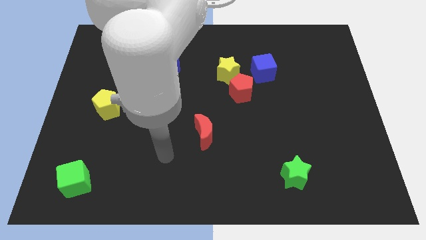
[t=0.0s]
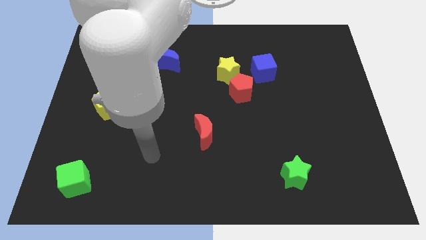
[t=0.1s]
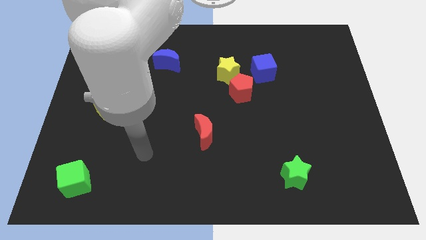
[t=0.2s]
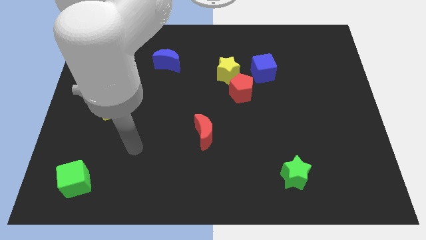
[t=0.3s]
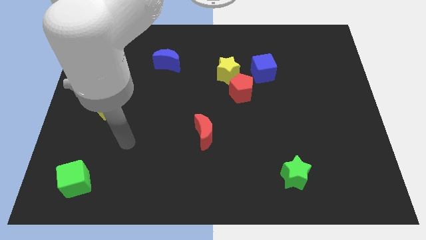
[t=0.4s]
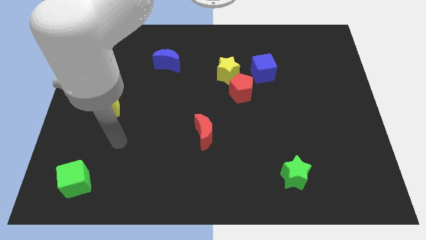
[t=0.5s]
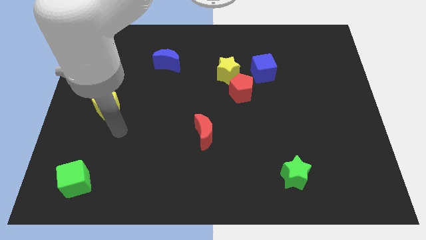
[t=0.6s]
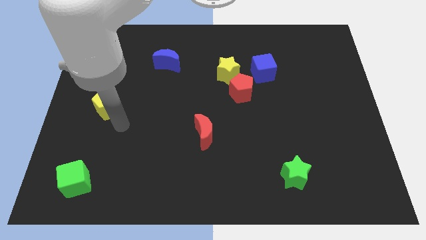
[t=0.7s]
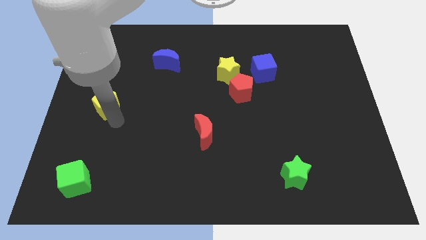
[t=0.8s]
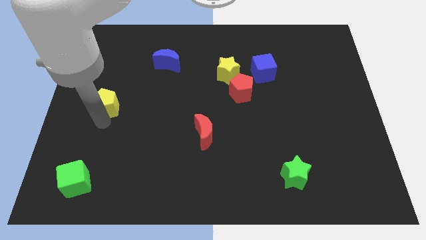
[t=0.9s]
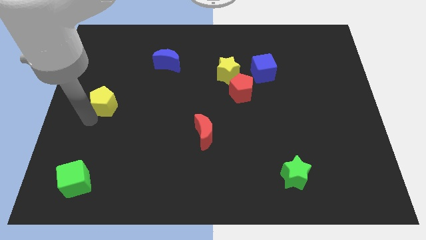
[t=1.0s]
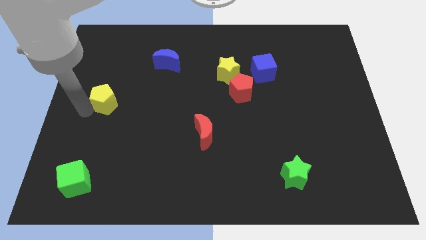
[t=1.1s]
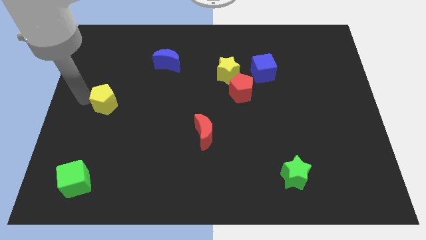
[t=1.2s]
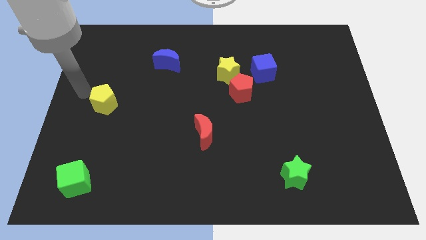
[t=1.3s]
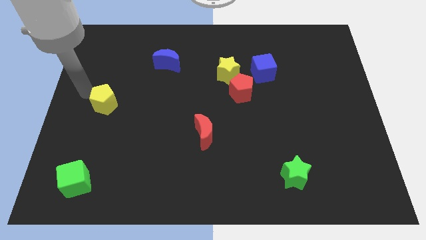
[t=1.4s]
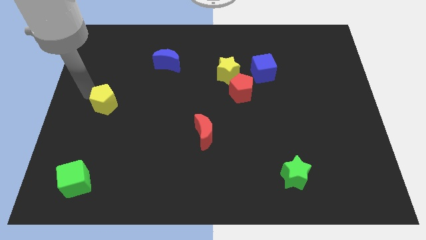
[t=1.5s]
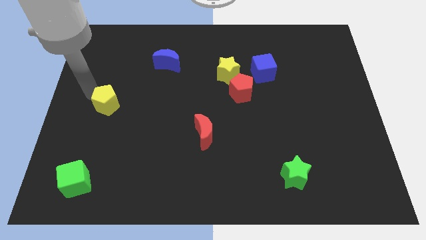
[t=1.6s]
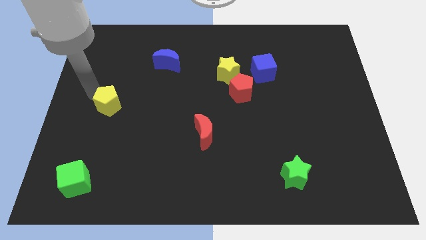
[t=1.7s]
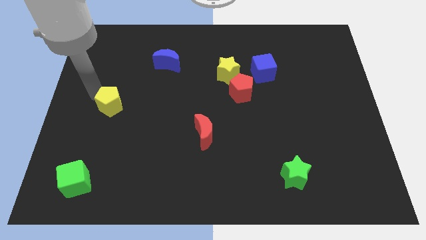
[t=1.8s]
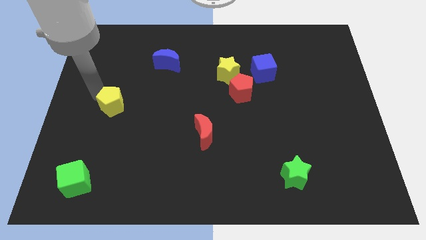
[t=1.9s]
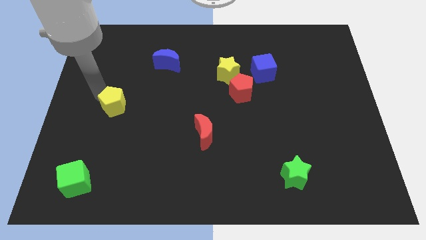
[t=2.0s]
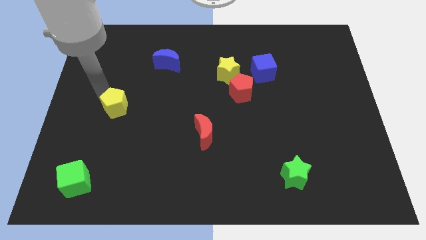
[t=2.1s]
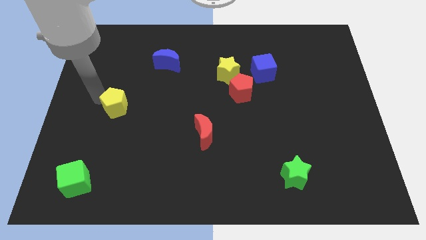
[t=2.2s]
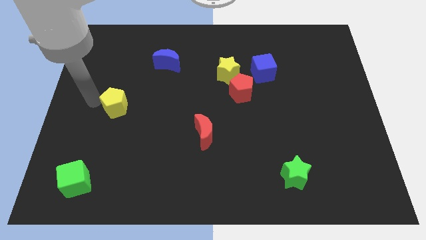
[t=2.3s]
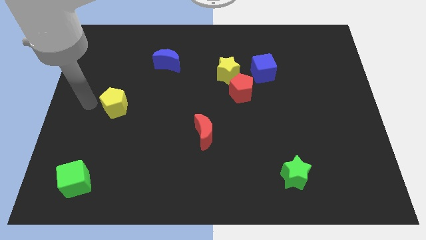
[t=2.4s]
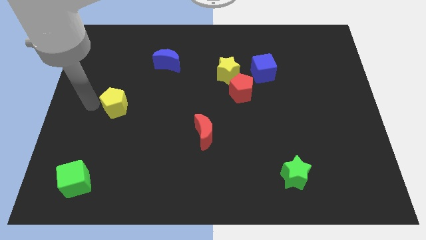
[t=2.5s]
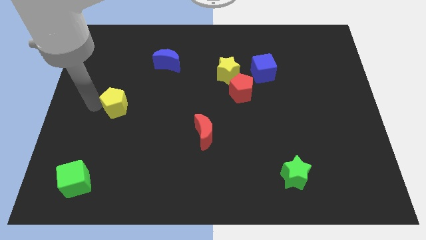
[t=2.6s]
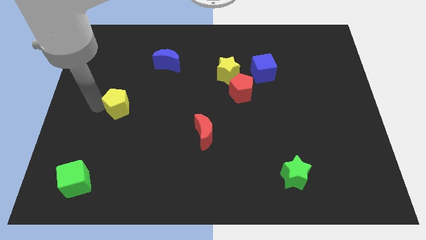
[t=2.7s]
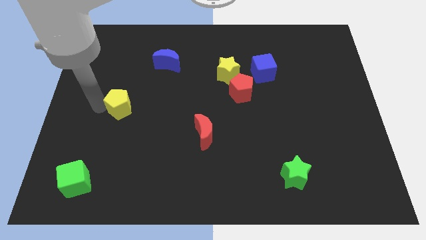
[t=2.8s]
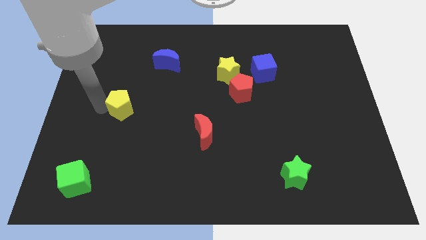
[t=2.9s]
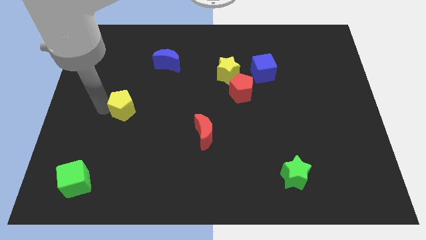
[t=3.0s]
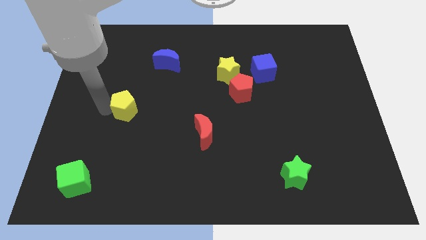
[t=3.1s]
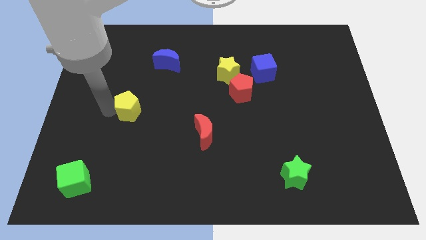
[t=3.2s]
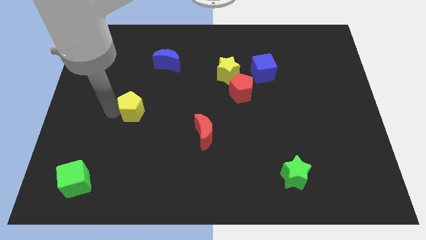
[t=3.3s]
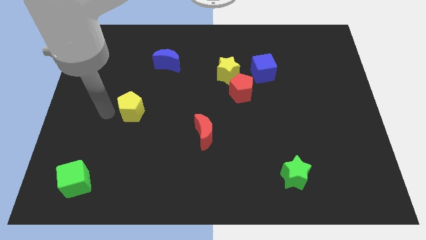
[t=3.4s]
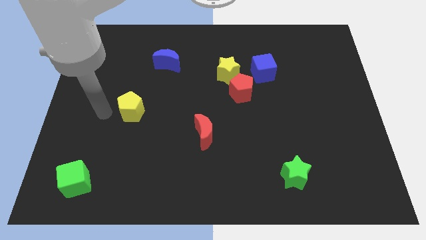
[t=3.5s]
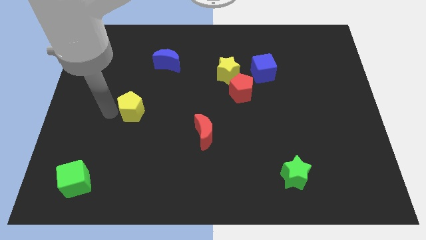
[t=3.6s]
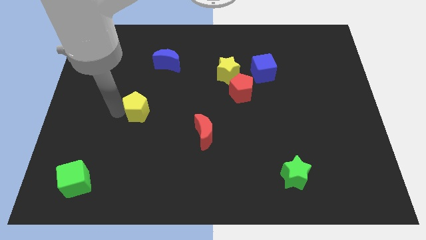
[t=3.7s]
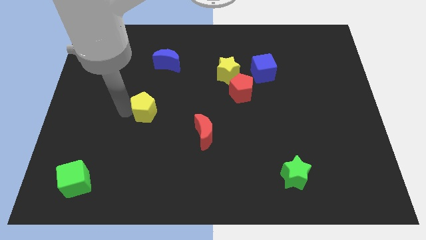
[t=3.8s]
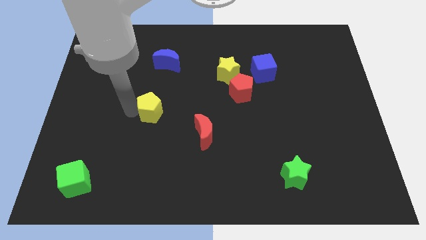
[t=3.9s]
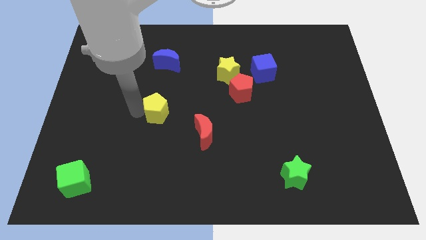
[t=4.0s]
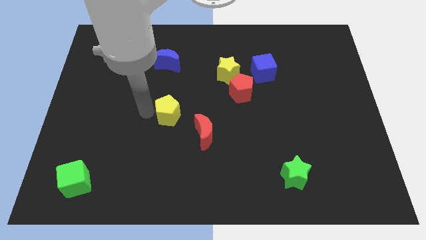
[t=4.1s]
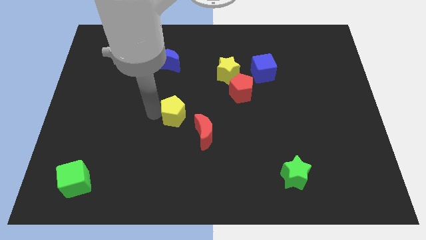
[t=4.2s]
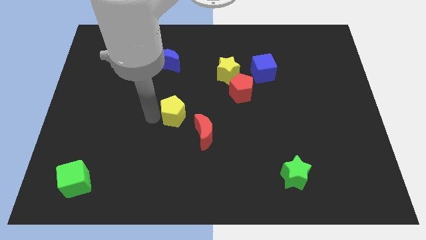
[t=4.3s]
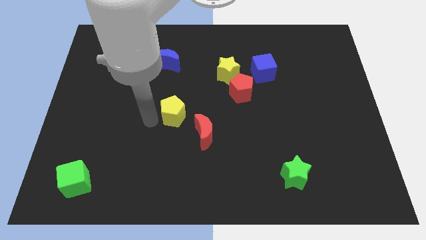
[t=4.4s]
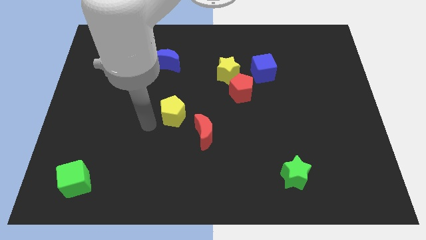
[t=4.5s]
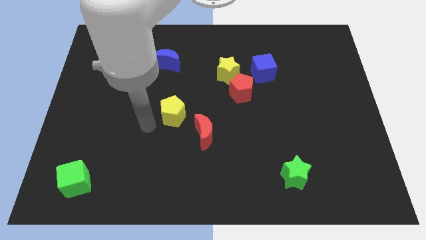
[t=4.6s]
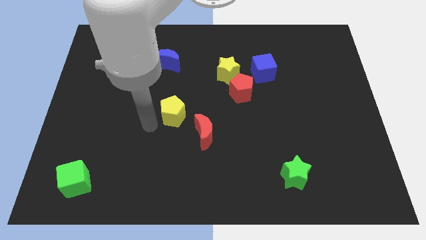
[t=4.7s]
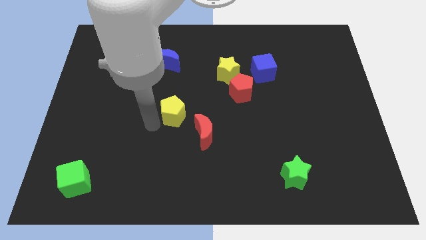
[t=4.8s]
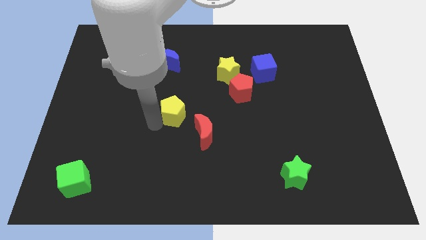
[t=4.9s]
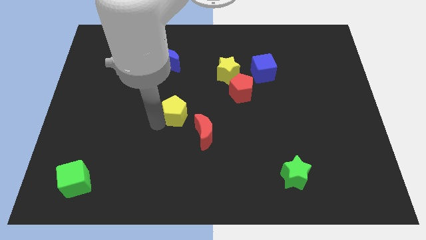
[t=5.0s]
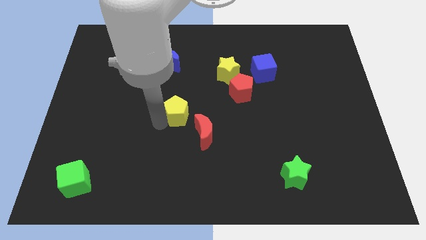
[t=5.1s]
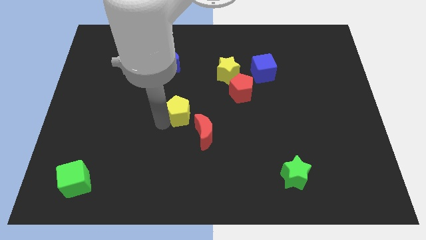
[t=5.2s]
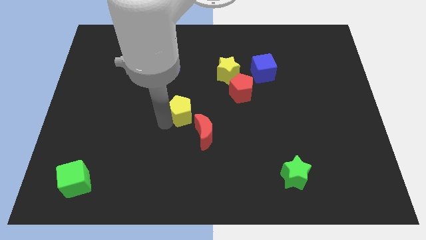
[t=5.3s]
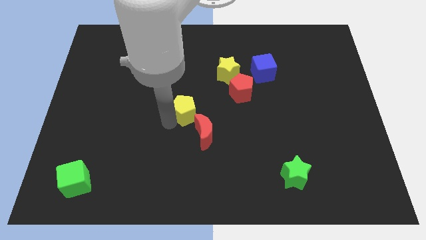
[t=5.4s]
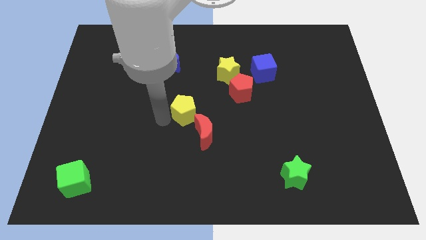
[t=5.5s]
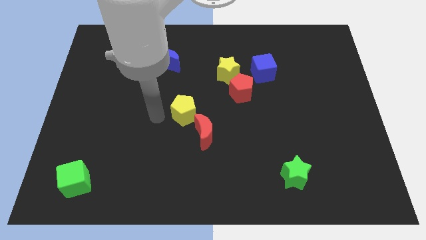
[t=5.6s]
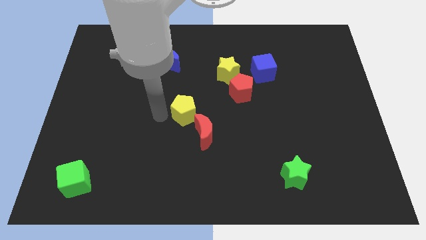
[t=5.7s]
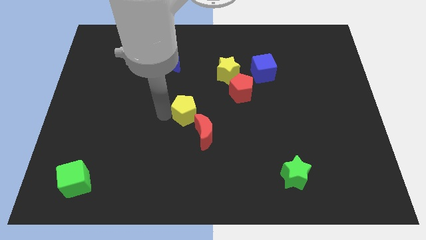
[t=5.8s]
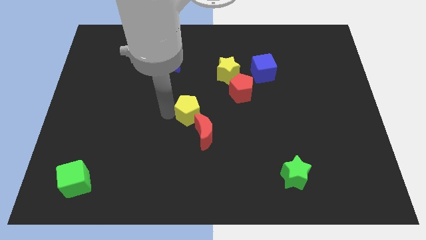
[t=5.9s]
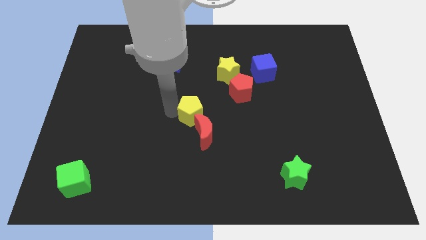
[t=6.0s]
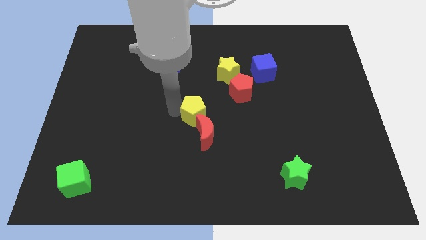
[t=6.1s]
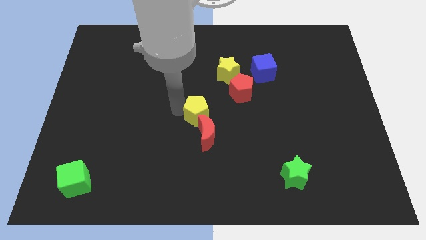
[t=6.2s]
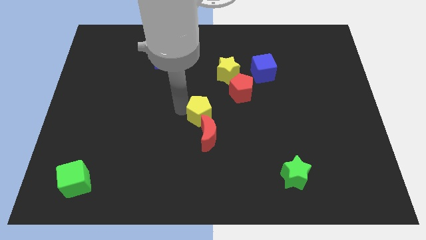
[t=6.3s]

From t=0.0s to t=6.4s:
put the yellow pentagon to the bottom left of the red pentagon

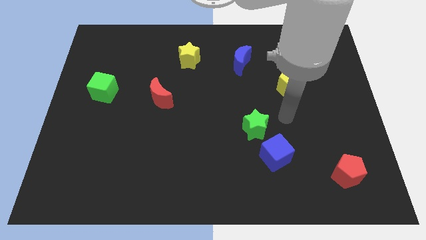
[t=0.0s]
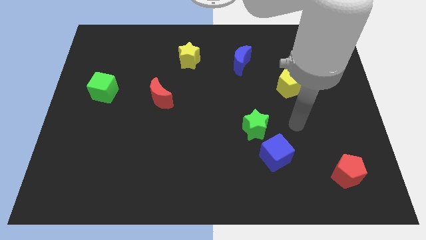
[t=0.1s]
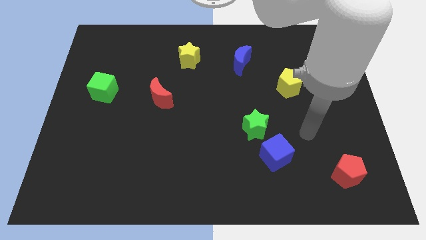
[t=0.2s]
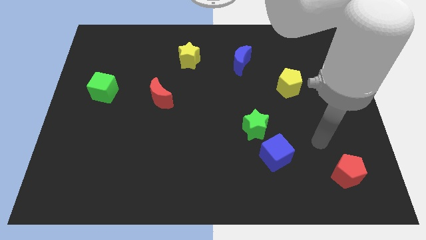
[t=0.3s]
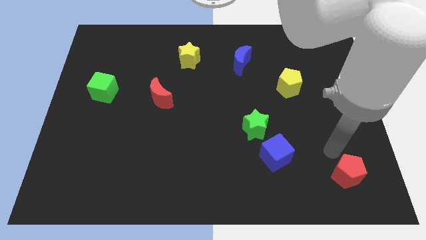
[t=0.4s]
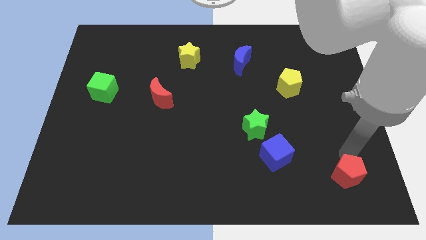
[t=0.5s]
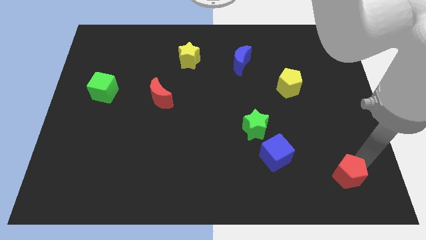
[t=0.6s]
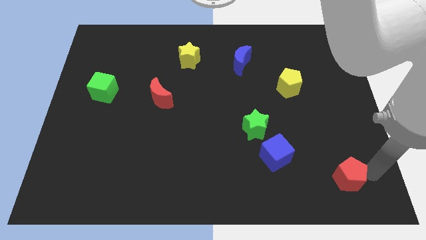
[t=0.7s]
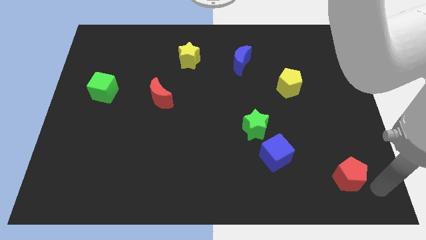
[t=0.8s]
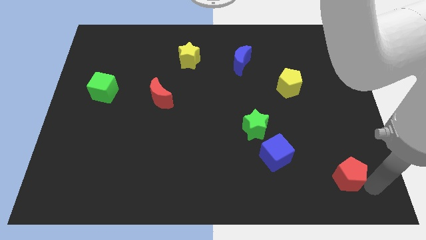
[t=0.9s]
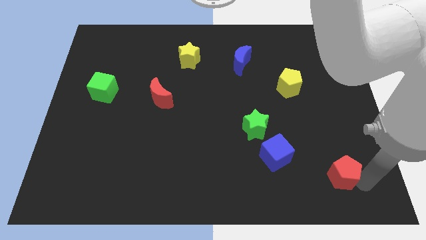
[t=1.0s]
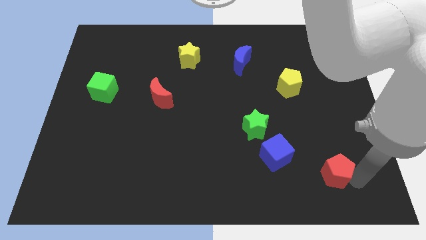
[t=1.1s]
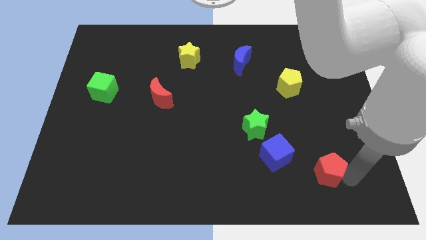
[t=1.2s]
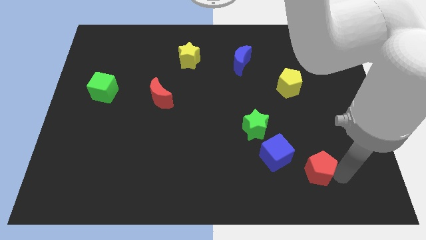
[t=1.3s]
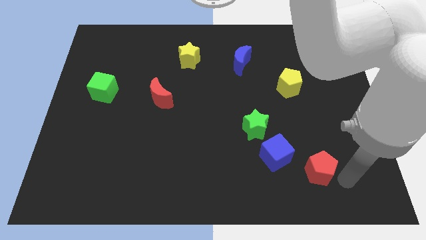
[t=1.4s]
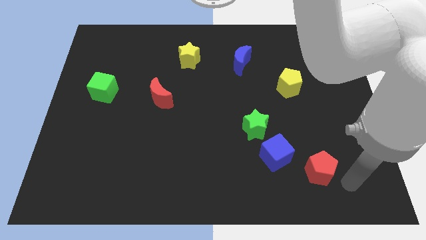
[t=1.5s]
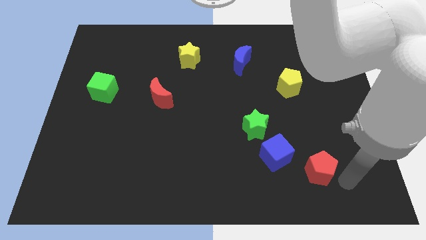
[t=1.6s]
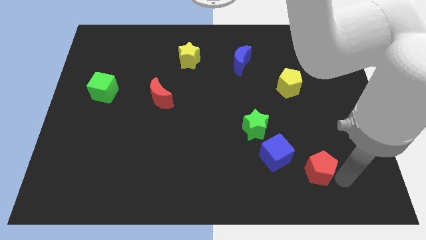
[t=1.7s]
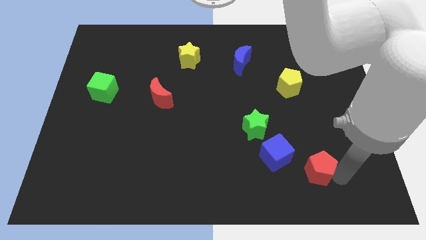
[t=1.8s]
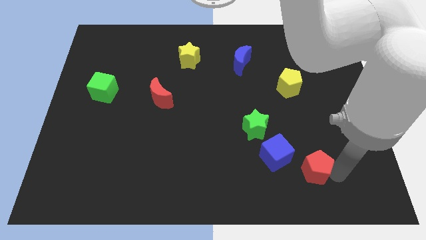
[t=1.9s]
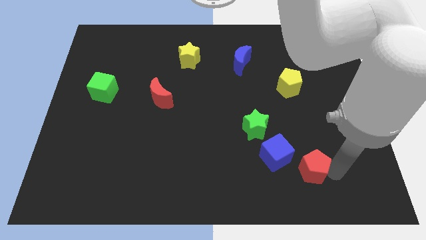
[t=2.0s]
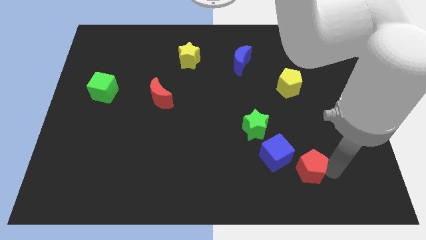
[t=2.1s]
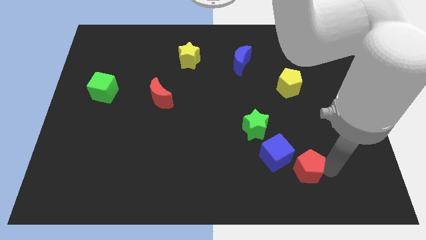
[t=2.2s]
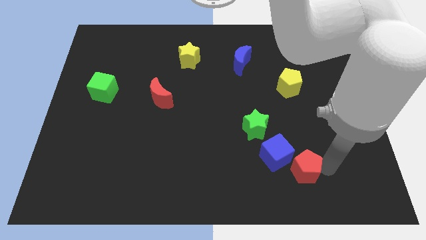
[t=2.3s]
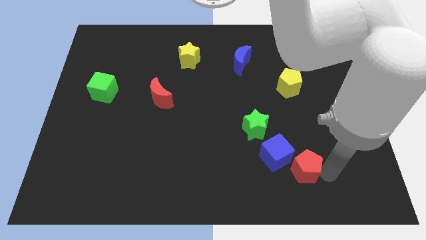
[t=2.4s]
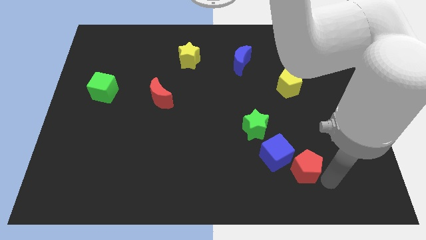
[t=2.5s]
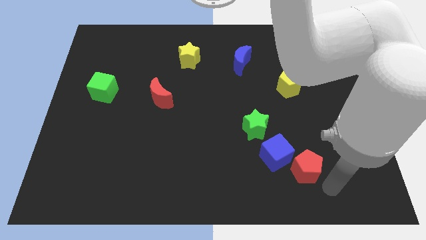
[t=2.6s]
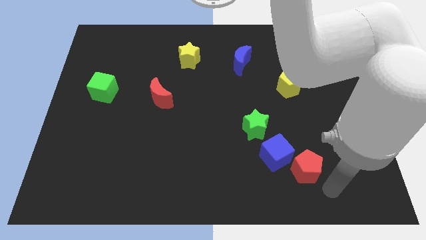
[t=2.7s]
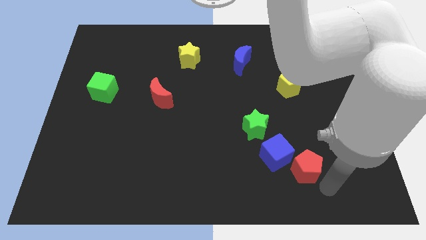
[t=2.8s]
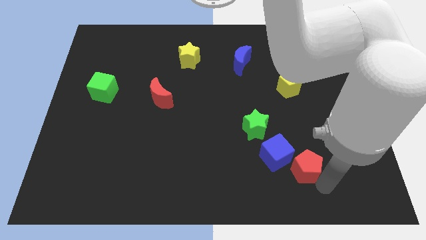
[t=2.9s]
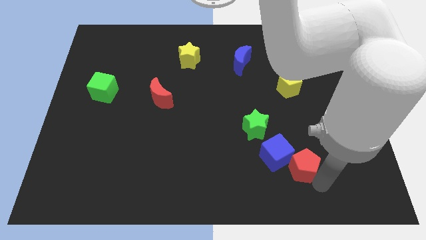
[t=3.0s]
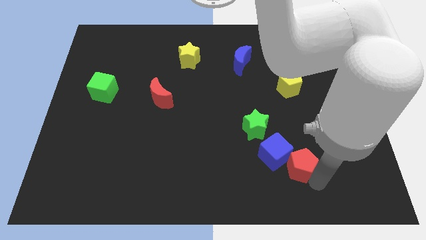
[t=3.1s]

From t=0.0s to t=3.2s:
move the red pentagon diagonally down and to the right of the green star
